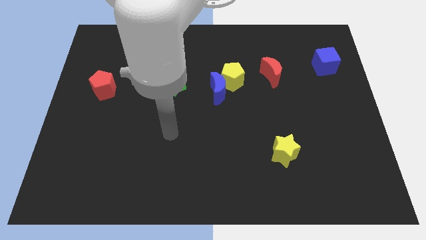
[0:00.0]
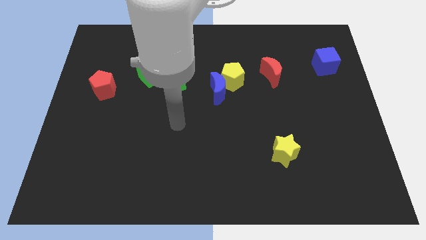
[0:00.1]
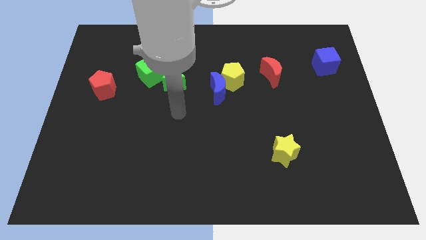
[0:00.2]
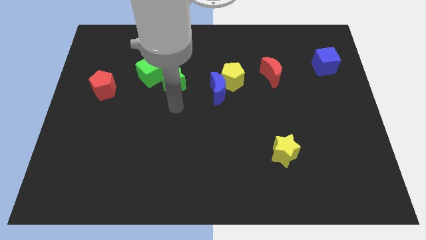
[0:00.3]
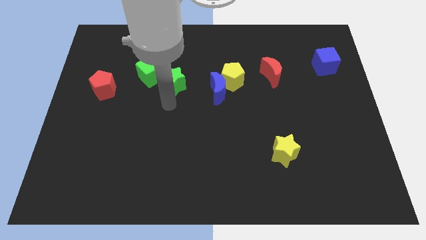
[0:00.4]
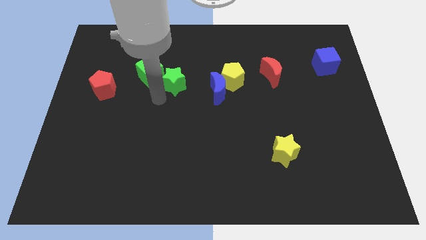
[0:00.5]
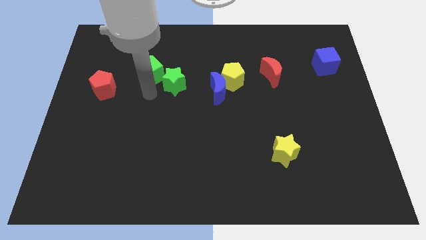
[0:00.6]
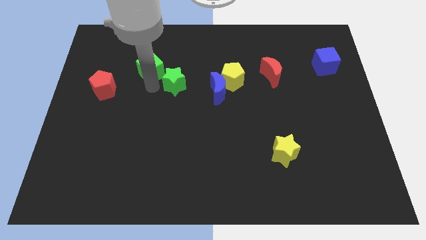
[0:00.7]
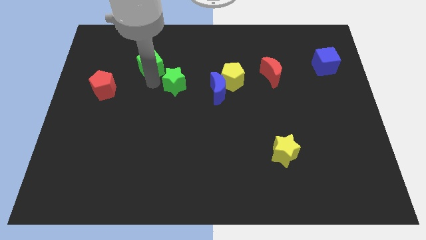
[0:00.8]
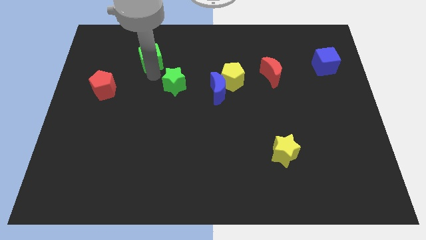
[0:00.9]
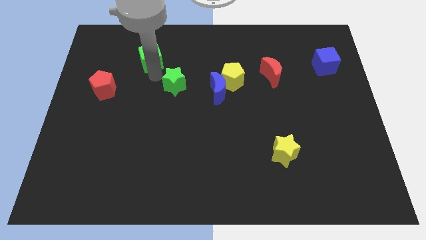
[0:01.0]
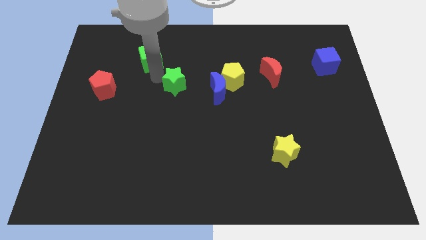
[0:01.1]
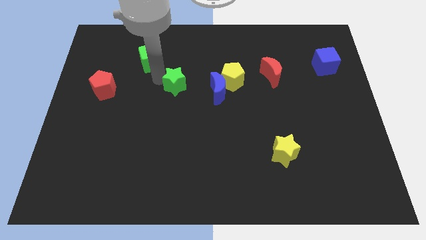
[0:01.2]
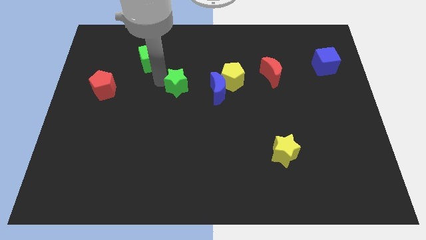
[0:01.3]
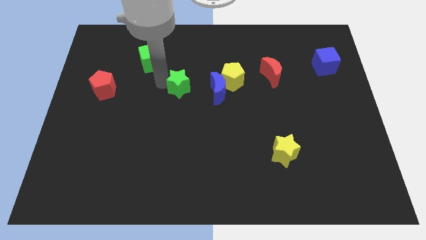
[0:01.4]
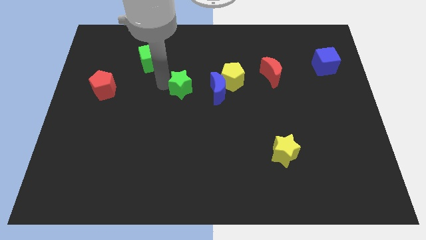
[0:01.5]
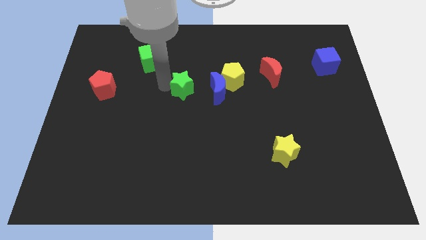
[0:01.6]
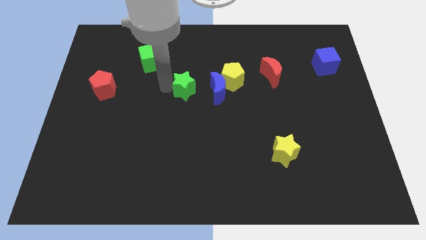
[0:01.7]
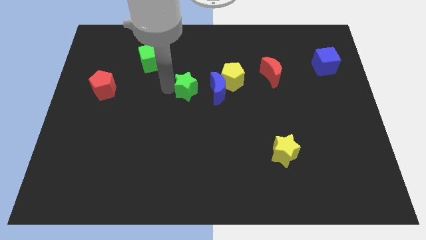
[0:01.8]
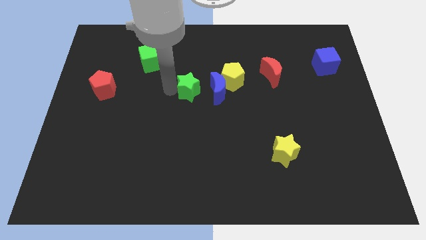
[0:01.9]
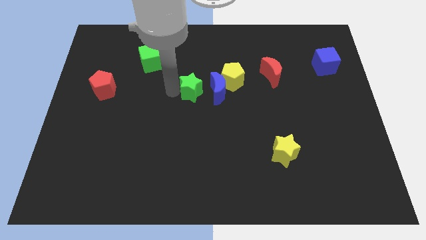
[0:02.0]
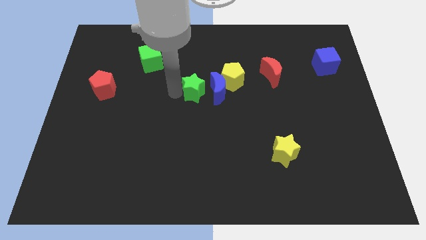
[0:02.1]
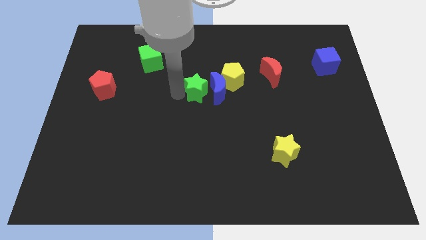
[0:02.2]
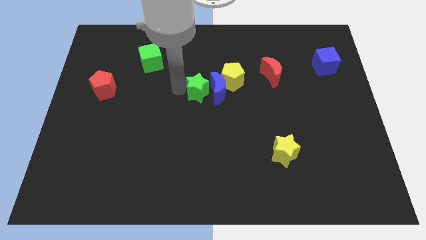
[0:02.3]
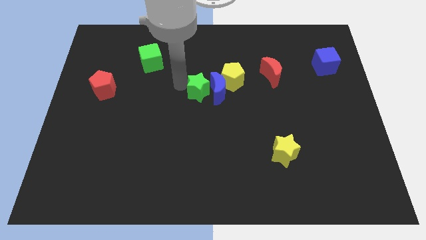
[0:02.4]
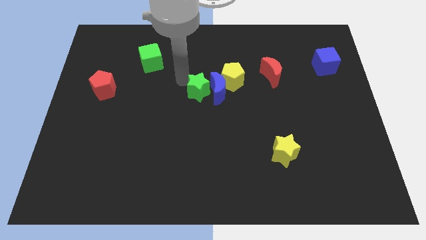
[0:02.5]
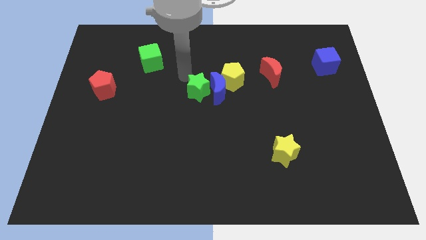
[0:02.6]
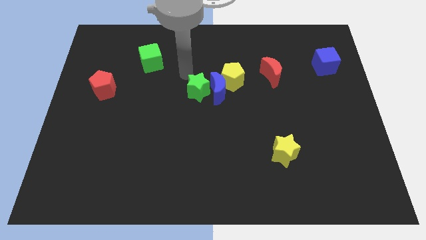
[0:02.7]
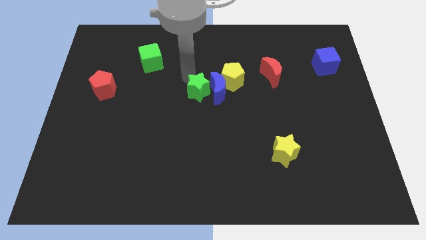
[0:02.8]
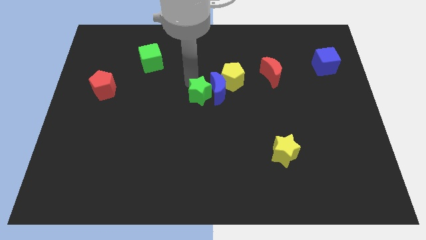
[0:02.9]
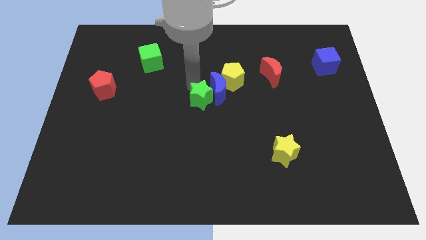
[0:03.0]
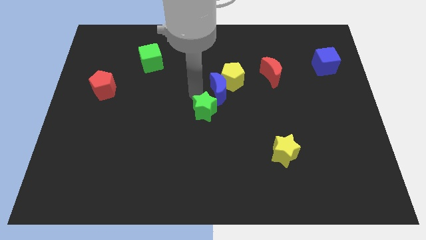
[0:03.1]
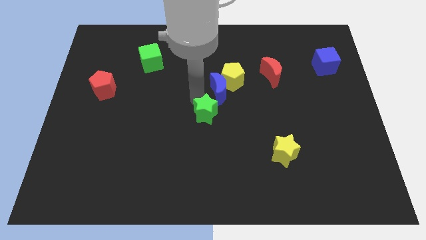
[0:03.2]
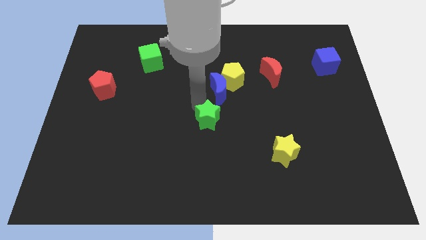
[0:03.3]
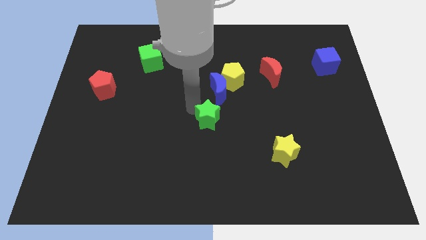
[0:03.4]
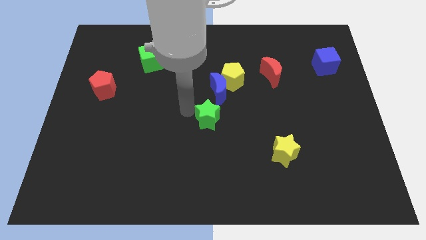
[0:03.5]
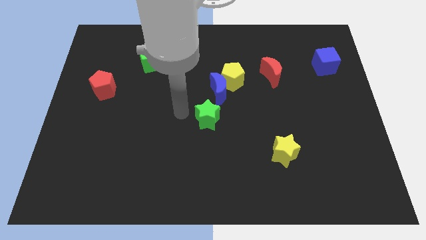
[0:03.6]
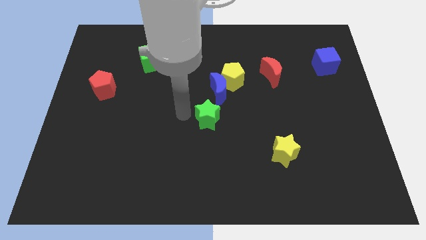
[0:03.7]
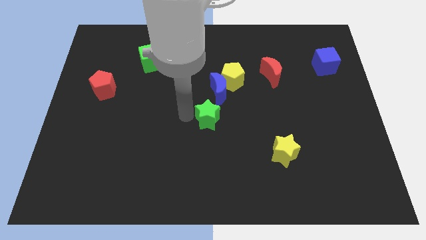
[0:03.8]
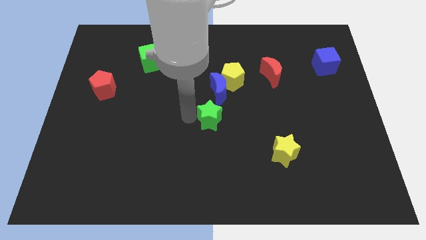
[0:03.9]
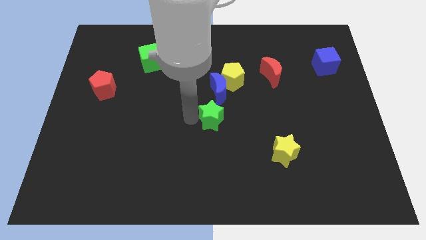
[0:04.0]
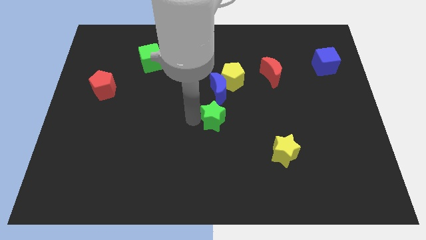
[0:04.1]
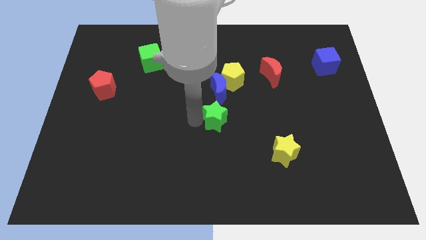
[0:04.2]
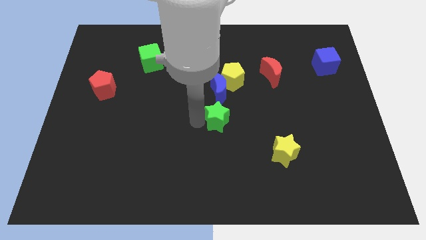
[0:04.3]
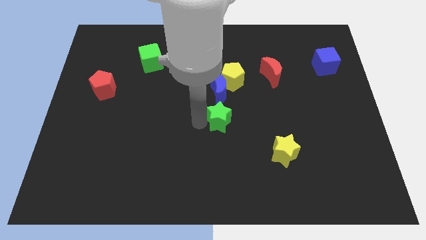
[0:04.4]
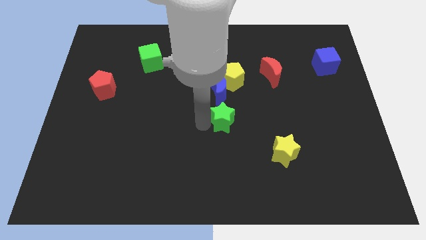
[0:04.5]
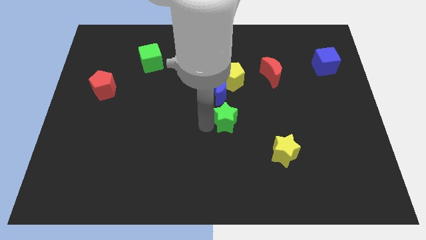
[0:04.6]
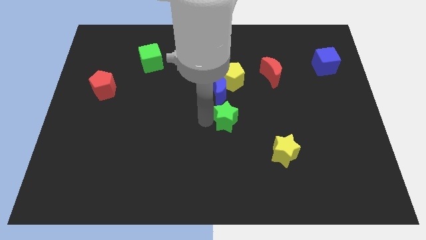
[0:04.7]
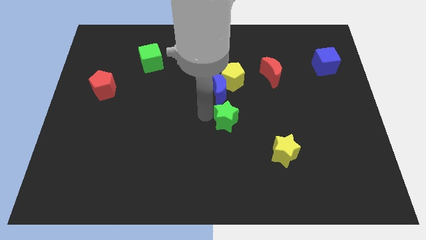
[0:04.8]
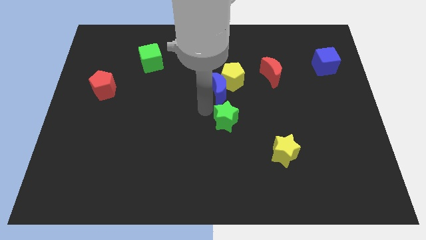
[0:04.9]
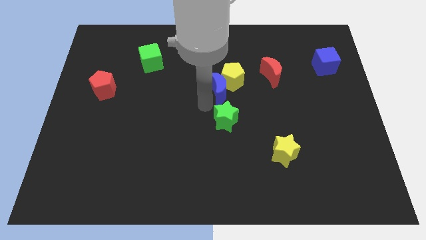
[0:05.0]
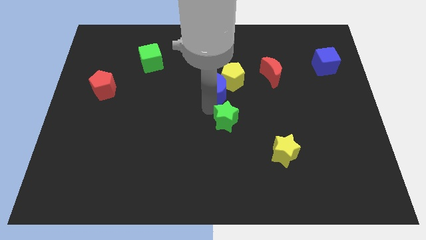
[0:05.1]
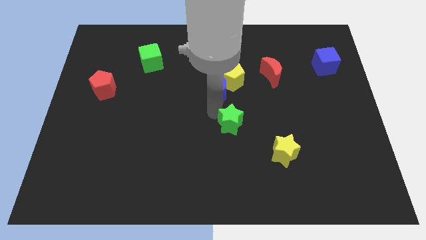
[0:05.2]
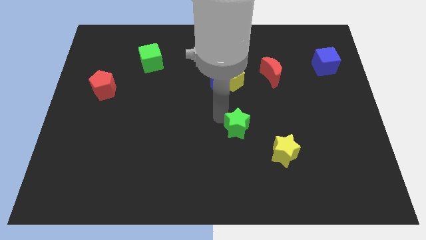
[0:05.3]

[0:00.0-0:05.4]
slide the green star down and right

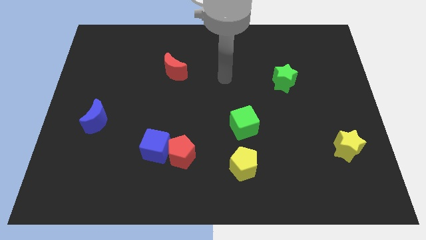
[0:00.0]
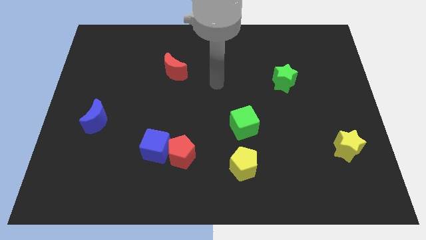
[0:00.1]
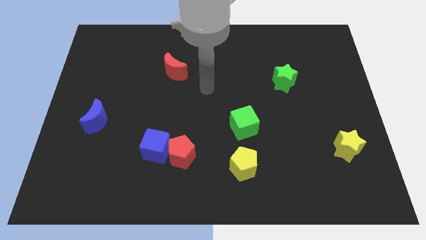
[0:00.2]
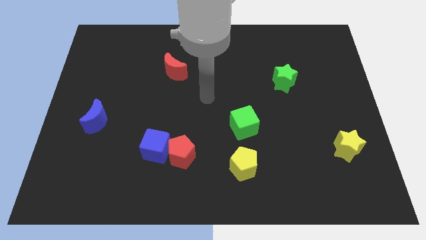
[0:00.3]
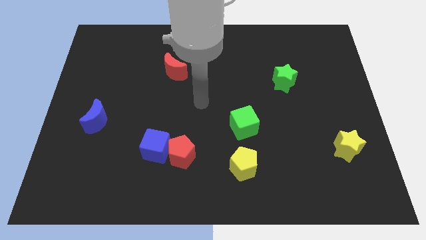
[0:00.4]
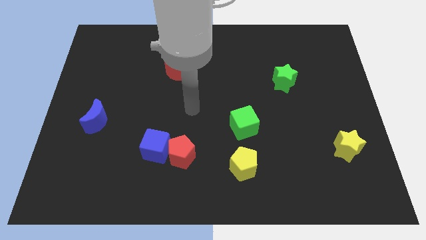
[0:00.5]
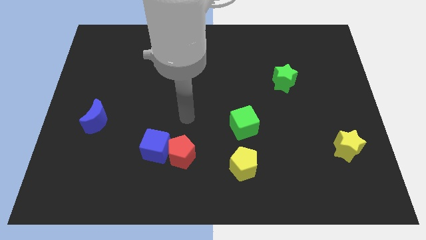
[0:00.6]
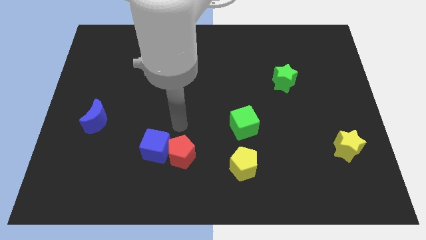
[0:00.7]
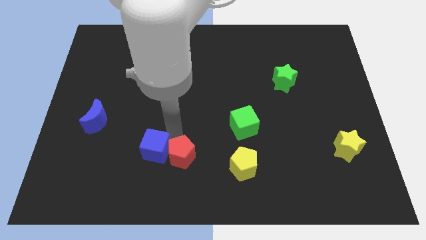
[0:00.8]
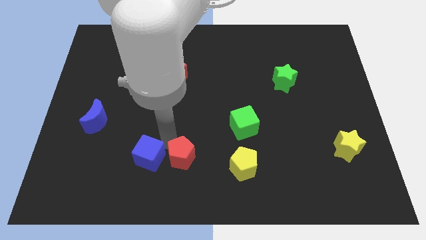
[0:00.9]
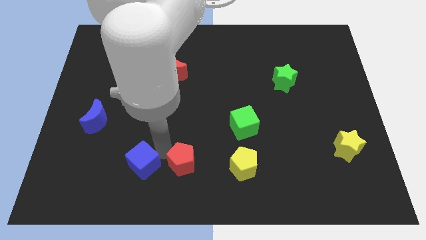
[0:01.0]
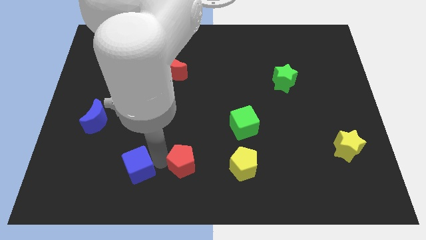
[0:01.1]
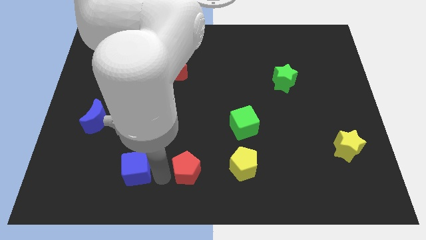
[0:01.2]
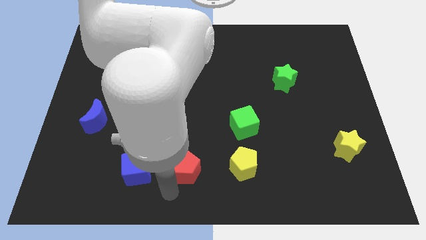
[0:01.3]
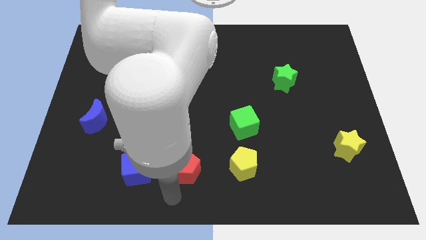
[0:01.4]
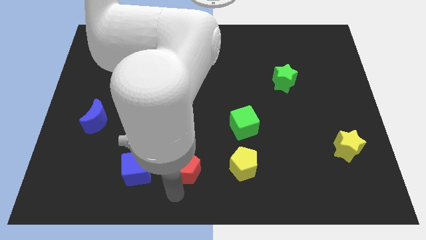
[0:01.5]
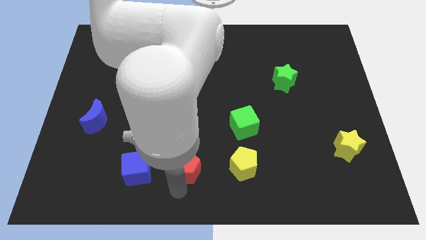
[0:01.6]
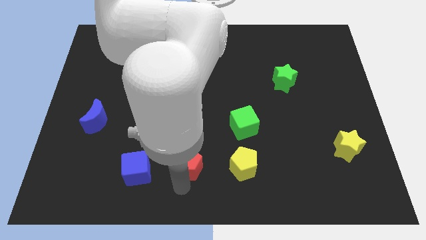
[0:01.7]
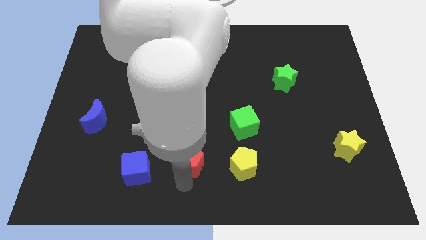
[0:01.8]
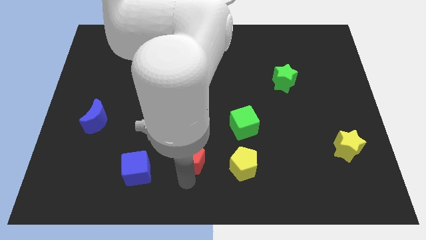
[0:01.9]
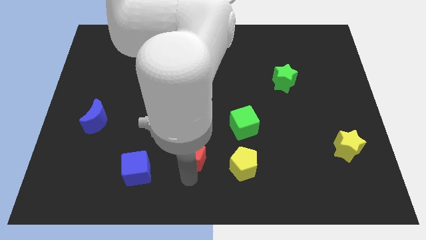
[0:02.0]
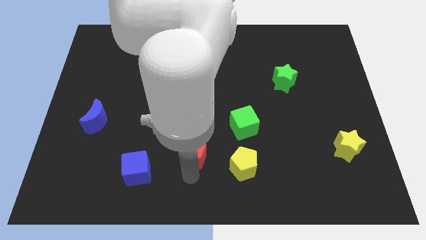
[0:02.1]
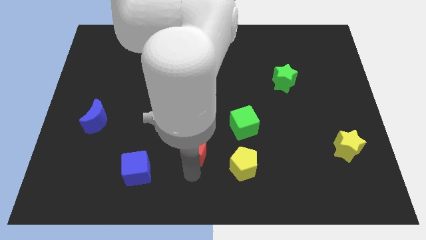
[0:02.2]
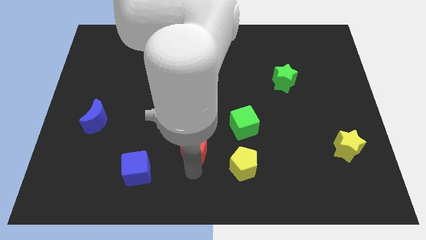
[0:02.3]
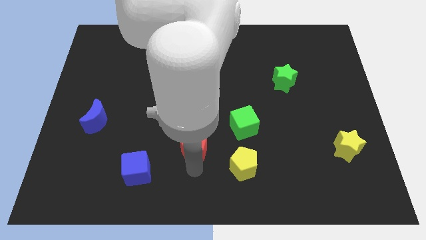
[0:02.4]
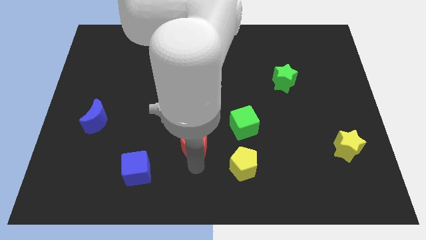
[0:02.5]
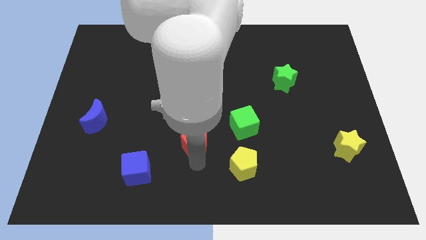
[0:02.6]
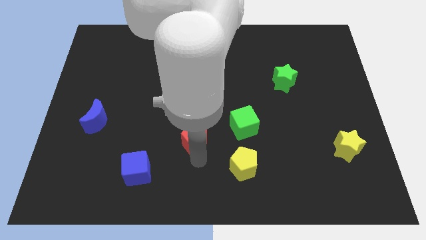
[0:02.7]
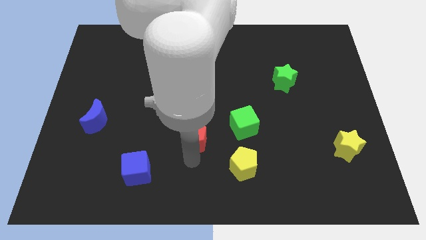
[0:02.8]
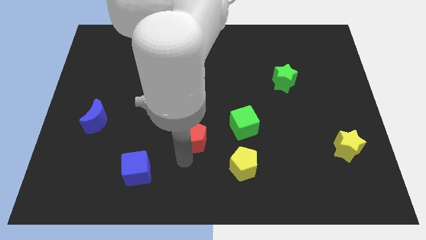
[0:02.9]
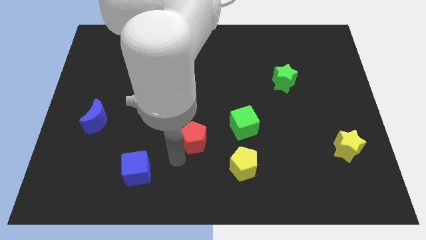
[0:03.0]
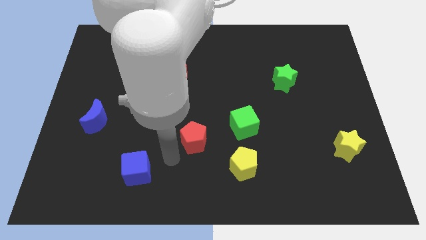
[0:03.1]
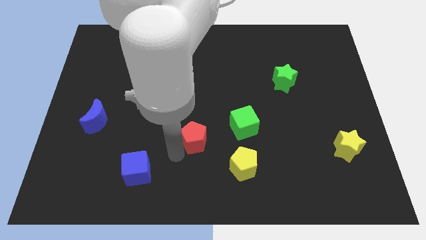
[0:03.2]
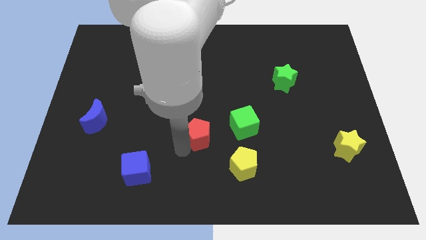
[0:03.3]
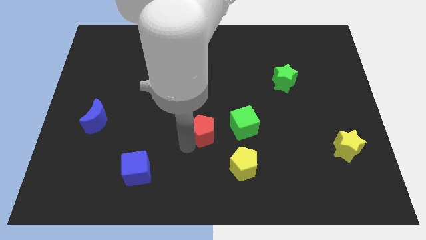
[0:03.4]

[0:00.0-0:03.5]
slide the red pentagon slightly up and to the right
